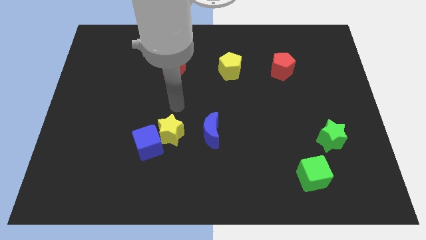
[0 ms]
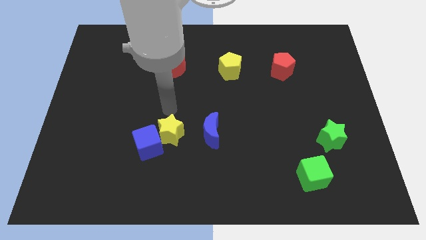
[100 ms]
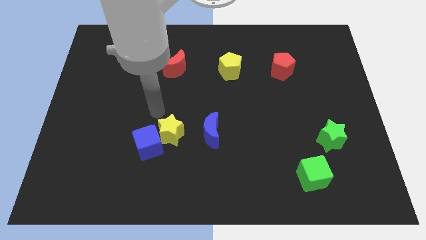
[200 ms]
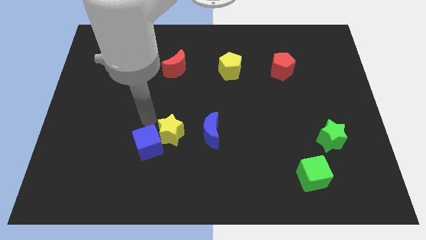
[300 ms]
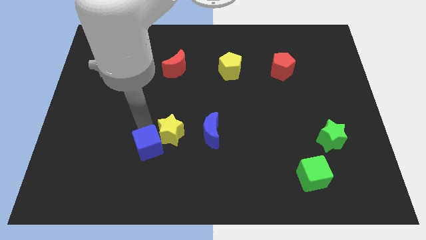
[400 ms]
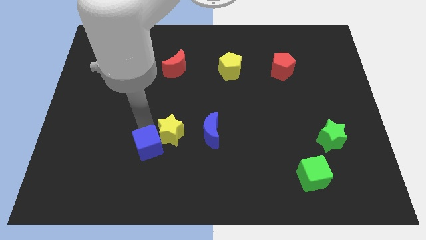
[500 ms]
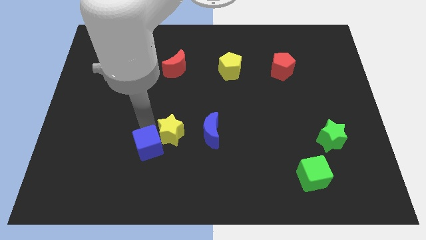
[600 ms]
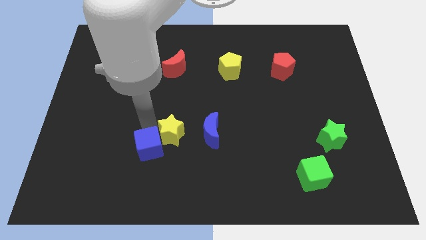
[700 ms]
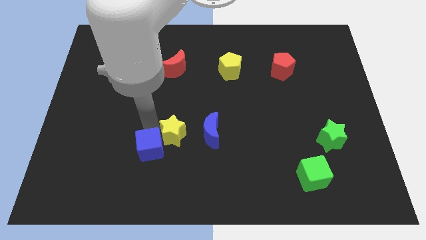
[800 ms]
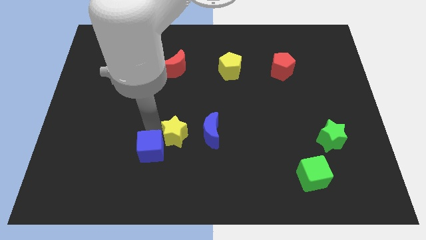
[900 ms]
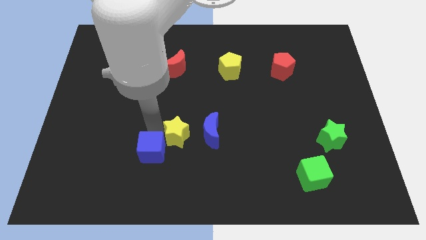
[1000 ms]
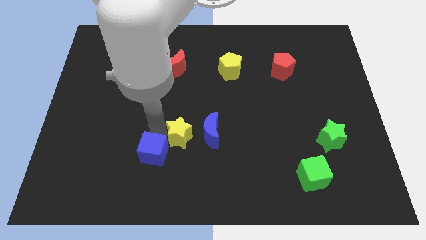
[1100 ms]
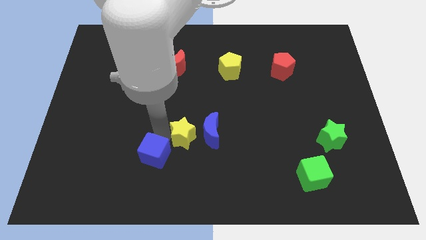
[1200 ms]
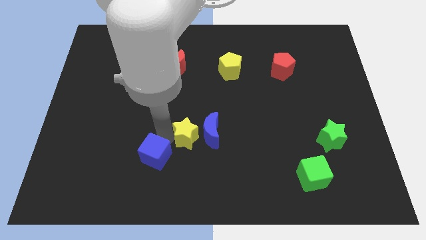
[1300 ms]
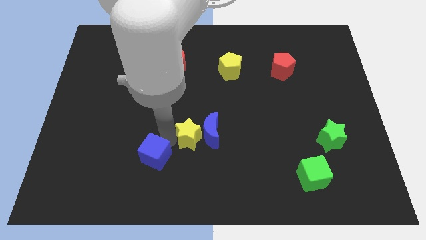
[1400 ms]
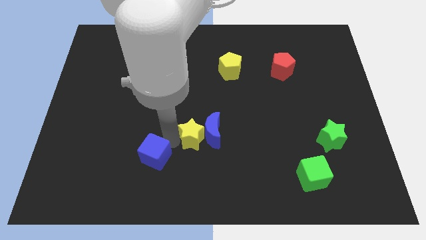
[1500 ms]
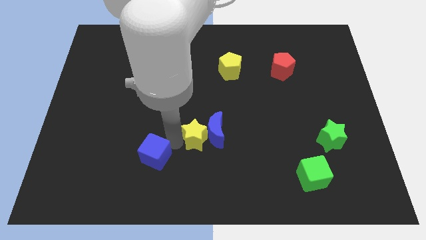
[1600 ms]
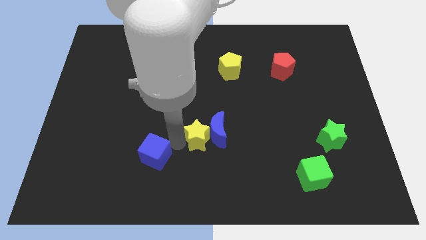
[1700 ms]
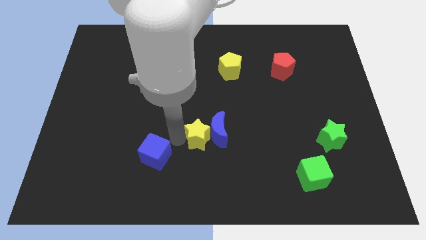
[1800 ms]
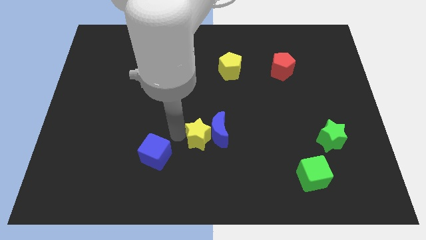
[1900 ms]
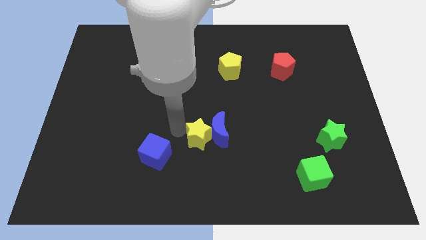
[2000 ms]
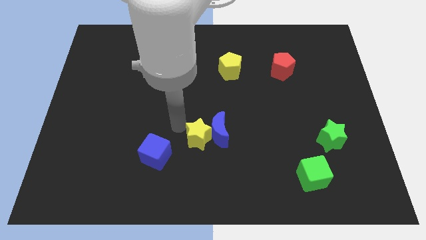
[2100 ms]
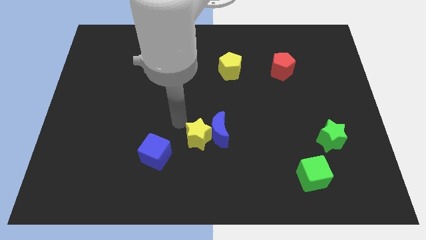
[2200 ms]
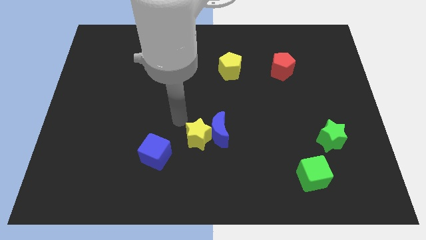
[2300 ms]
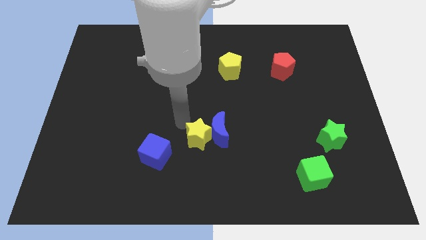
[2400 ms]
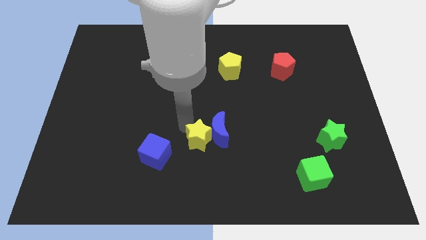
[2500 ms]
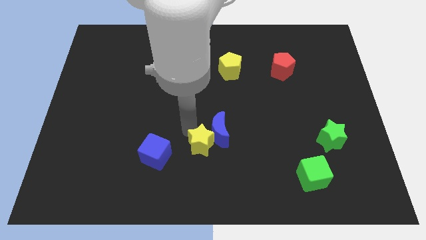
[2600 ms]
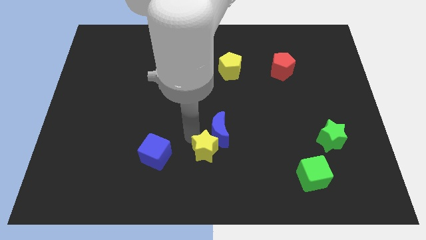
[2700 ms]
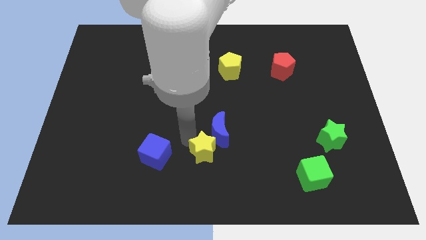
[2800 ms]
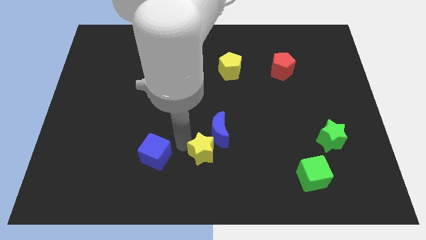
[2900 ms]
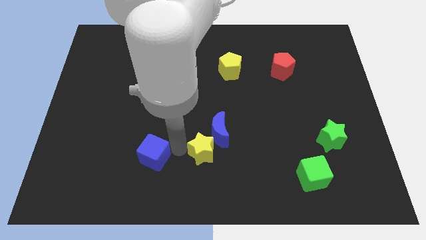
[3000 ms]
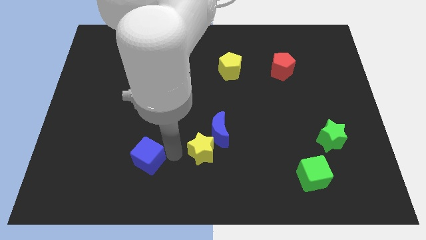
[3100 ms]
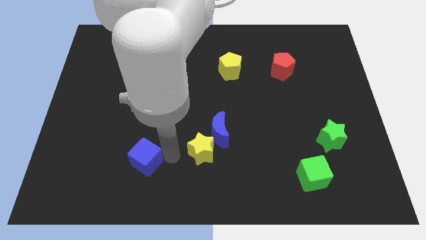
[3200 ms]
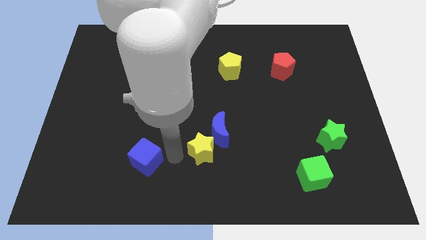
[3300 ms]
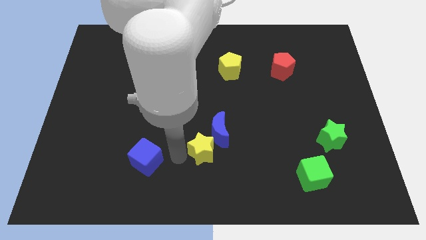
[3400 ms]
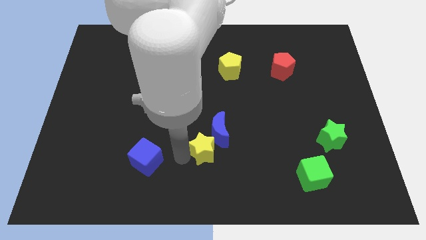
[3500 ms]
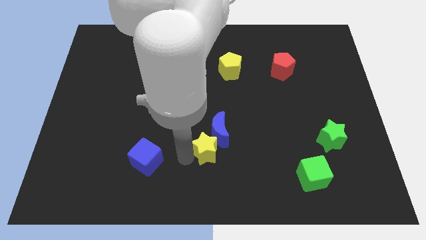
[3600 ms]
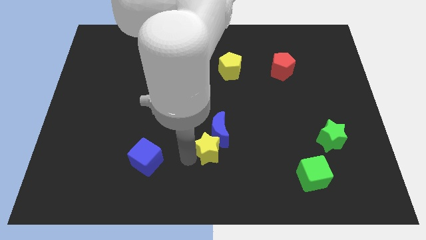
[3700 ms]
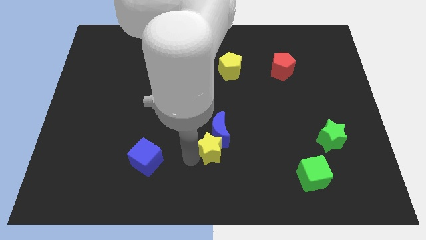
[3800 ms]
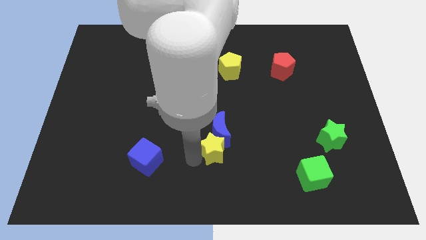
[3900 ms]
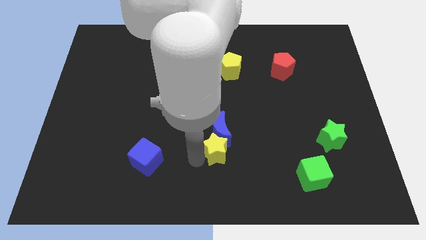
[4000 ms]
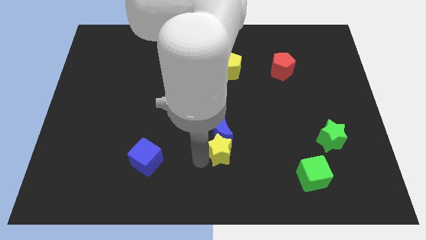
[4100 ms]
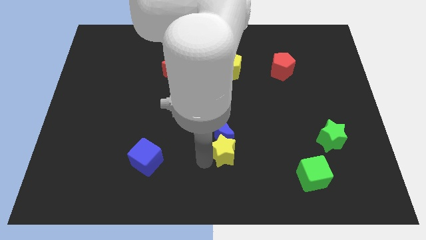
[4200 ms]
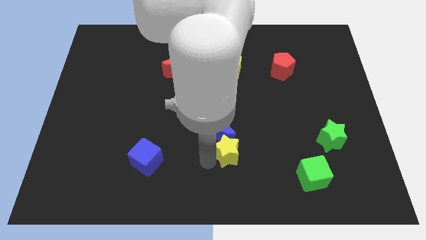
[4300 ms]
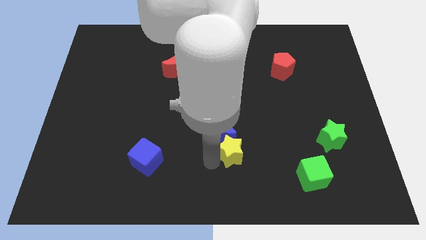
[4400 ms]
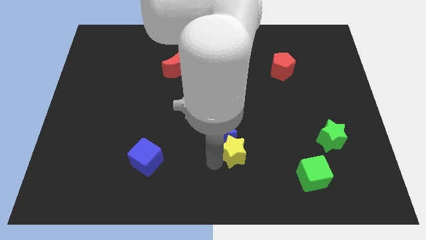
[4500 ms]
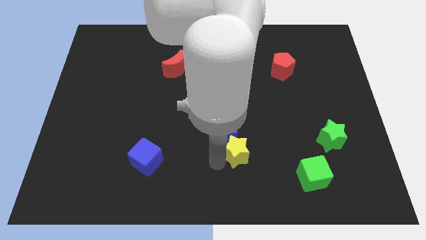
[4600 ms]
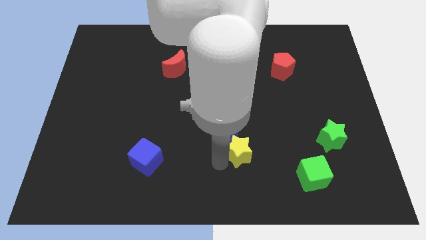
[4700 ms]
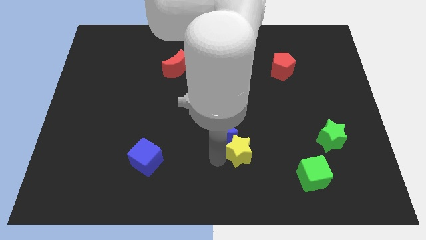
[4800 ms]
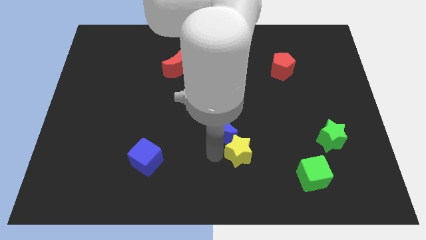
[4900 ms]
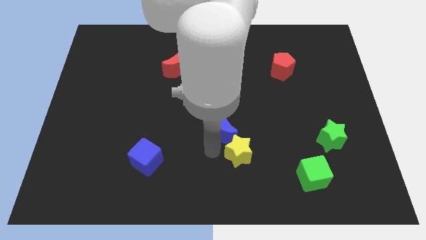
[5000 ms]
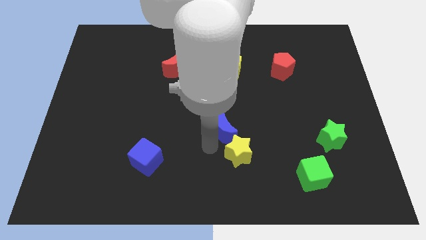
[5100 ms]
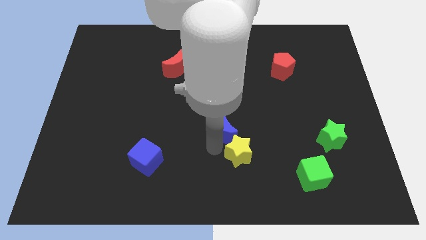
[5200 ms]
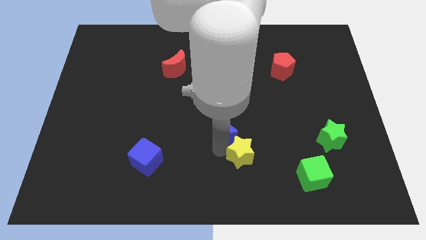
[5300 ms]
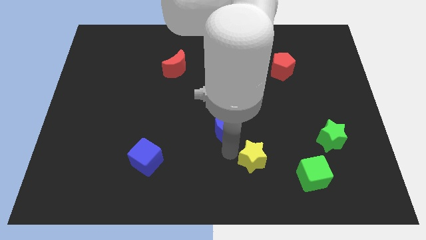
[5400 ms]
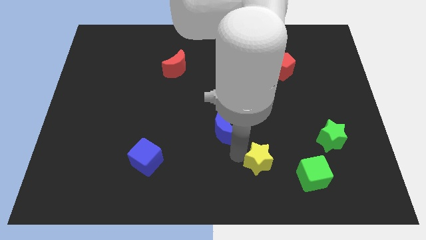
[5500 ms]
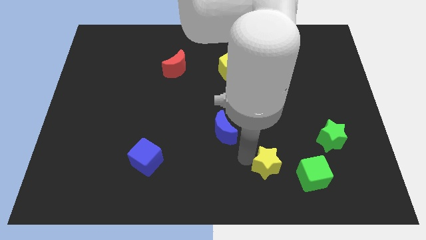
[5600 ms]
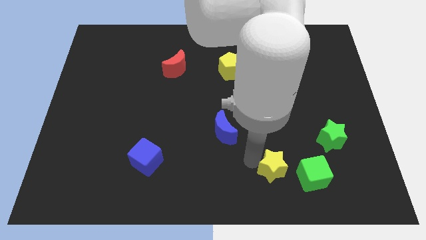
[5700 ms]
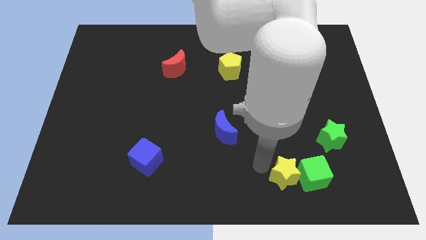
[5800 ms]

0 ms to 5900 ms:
push the yellow star towards the green cube

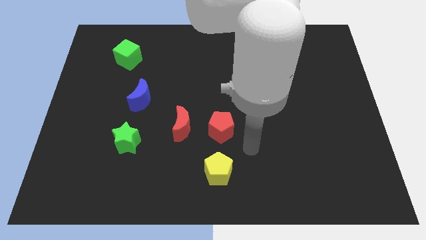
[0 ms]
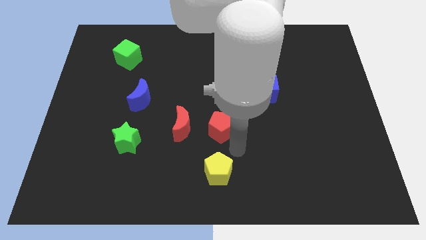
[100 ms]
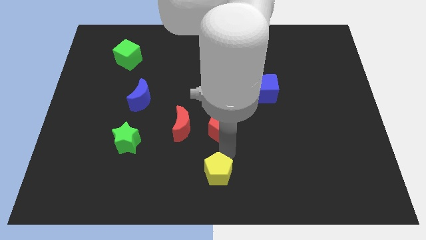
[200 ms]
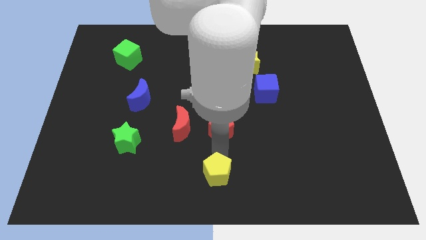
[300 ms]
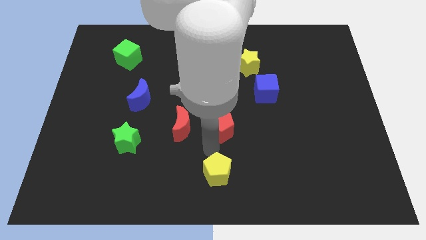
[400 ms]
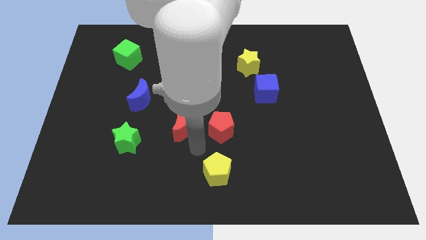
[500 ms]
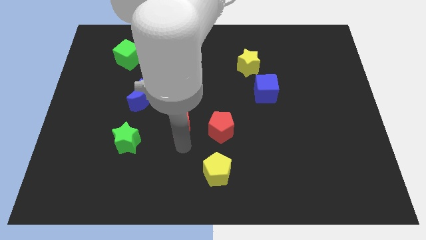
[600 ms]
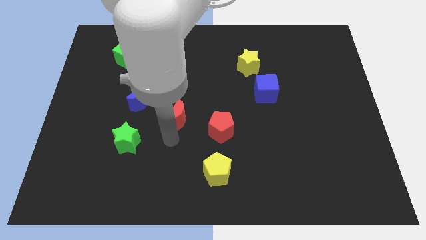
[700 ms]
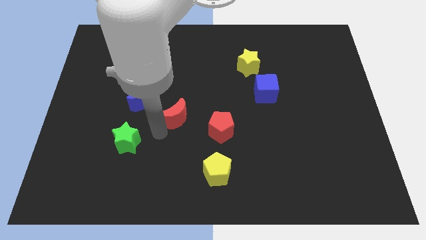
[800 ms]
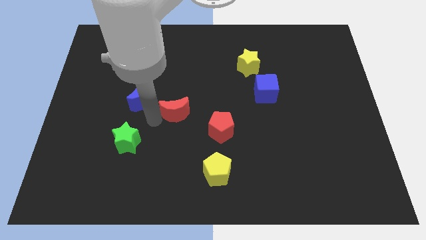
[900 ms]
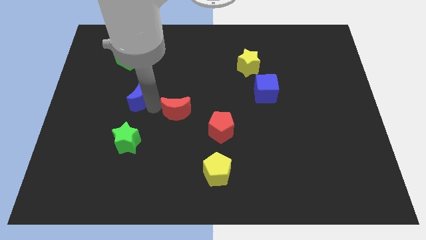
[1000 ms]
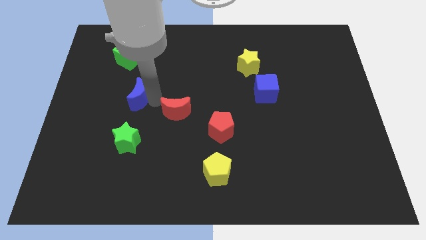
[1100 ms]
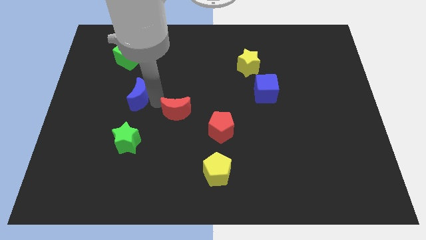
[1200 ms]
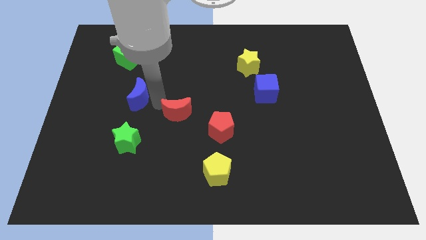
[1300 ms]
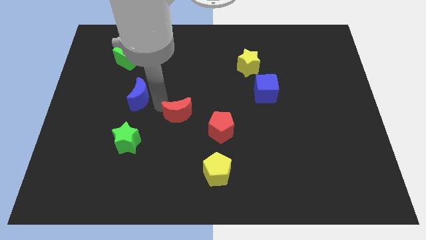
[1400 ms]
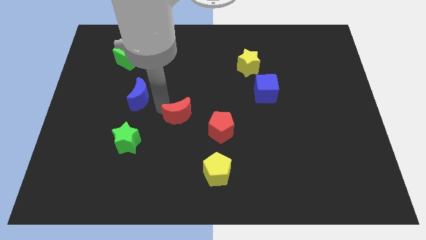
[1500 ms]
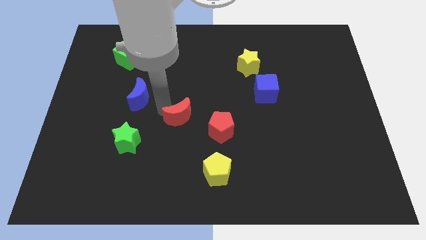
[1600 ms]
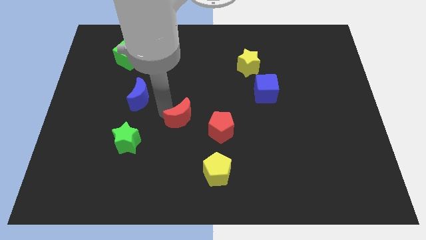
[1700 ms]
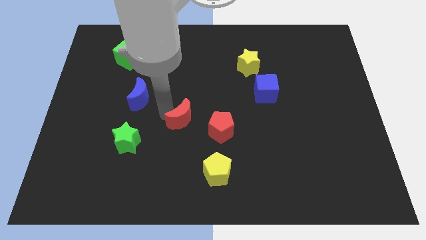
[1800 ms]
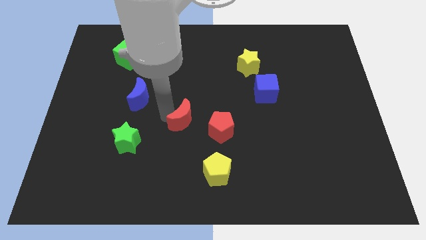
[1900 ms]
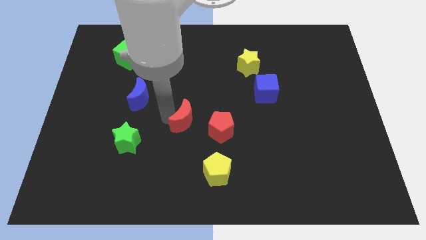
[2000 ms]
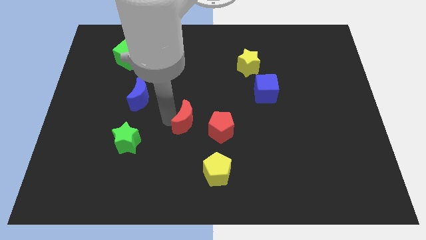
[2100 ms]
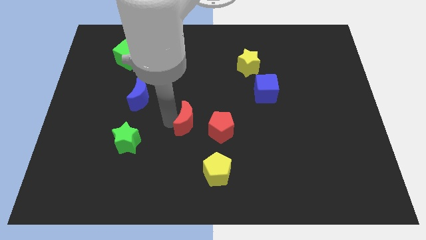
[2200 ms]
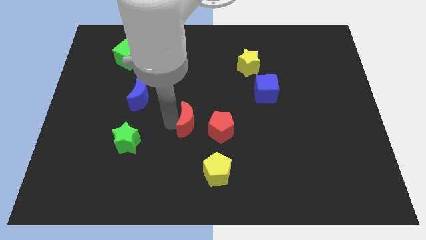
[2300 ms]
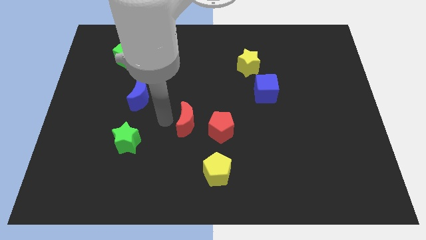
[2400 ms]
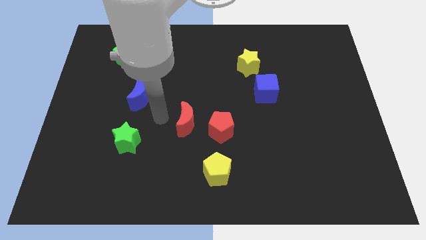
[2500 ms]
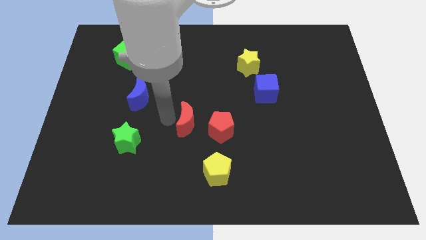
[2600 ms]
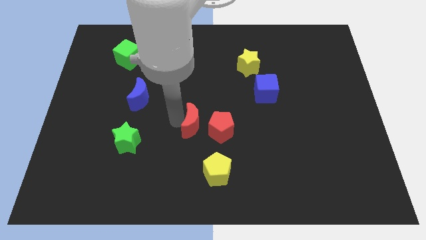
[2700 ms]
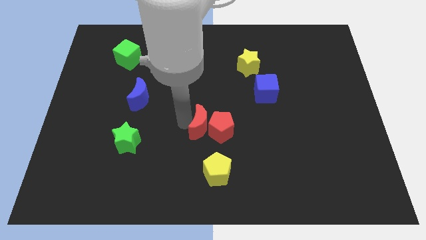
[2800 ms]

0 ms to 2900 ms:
push the red moon to the red pentagon
